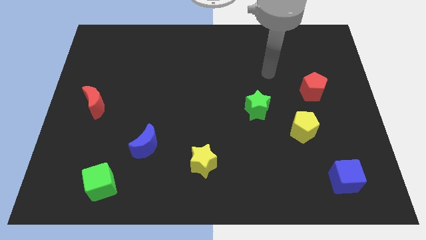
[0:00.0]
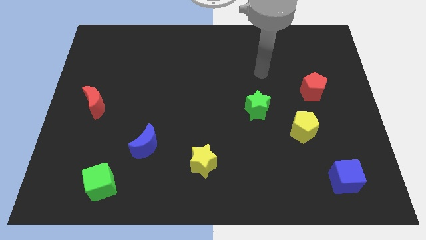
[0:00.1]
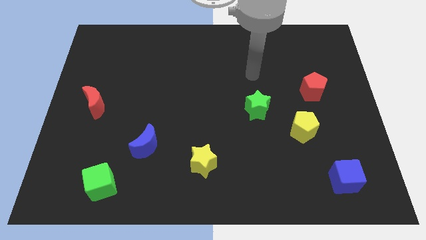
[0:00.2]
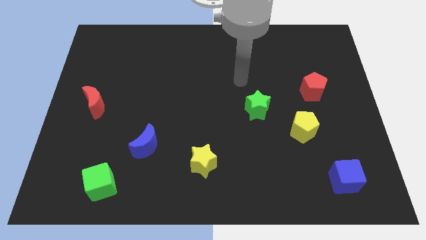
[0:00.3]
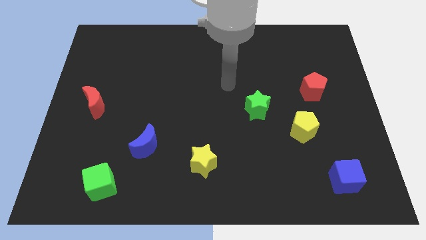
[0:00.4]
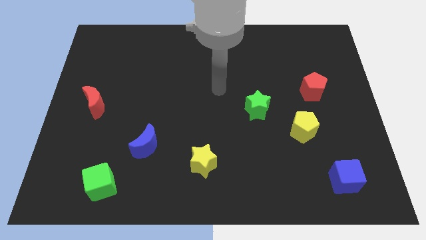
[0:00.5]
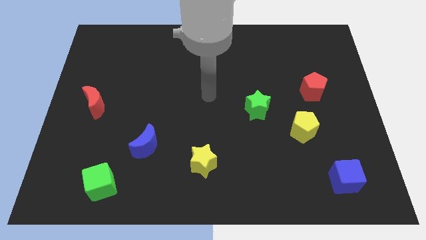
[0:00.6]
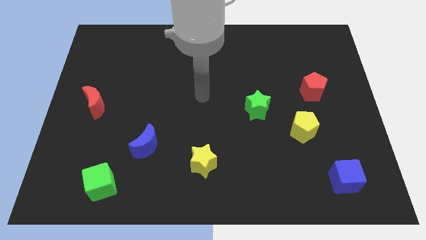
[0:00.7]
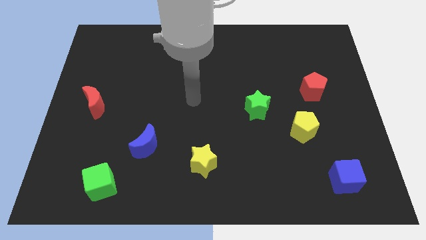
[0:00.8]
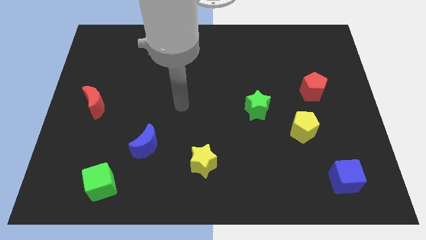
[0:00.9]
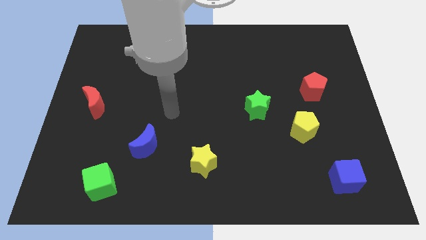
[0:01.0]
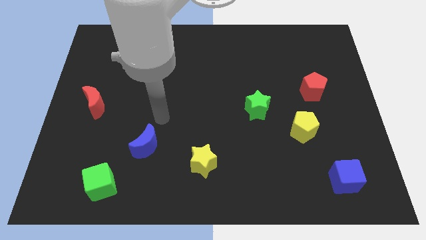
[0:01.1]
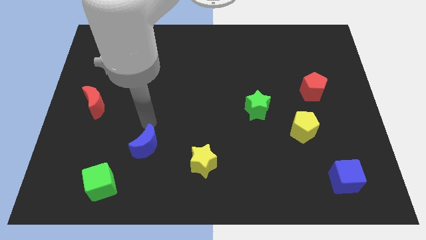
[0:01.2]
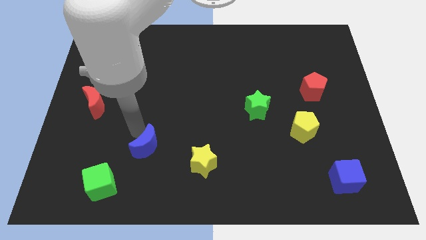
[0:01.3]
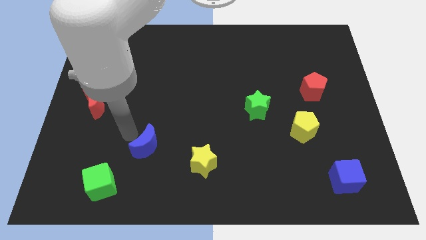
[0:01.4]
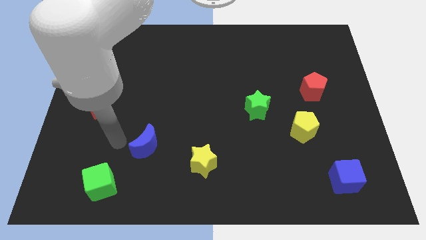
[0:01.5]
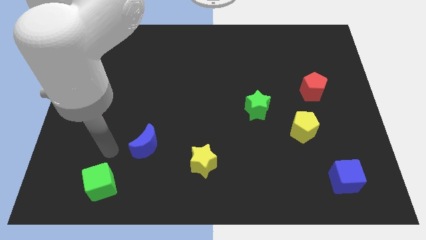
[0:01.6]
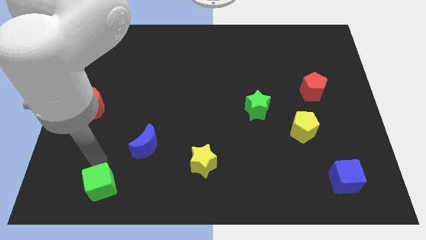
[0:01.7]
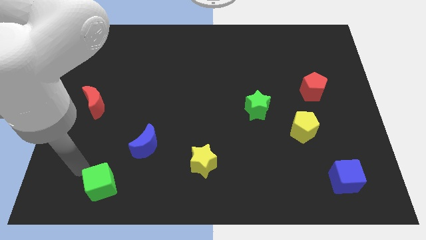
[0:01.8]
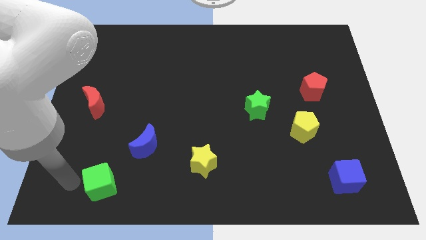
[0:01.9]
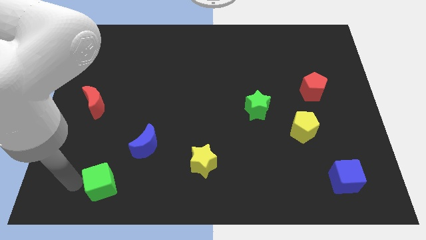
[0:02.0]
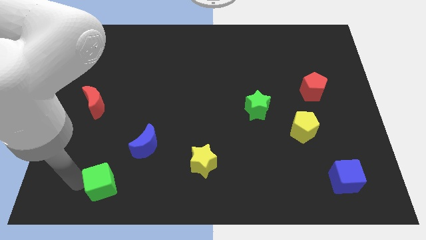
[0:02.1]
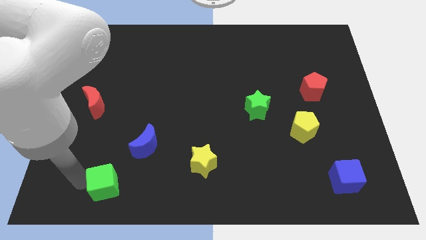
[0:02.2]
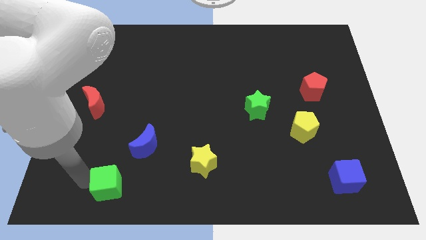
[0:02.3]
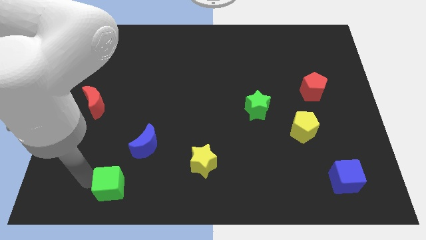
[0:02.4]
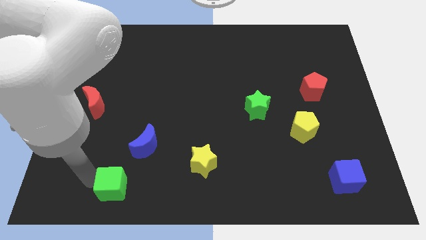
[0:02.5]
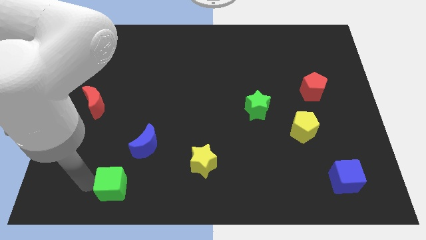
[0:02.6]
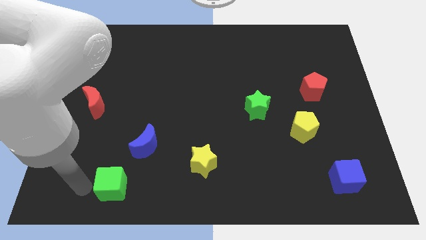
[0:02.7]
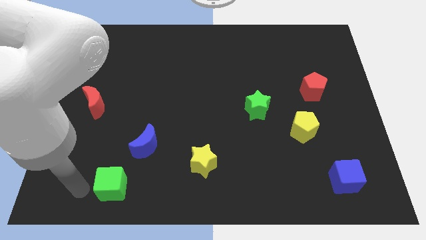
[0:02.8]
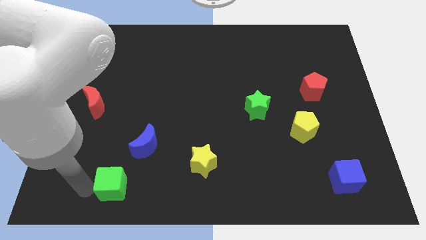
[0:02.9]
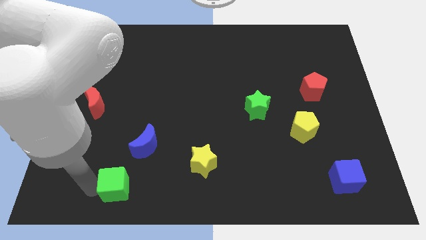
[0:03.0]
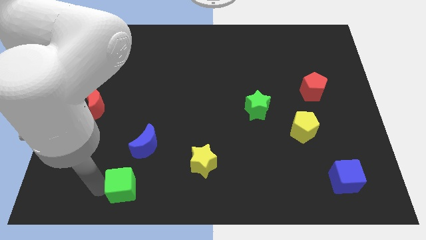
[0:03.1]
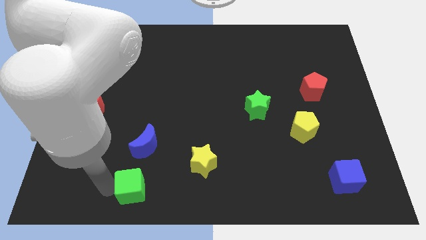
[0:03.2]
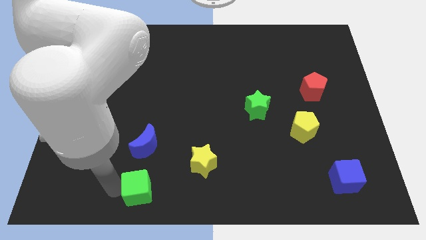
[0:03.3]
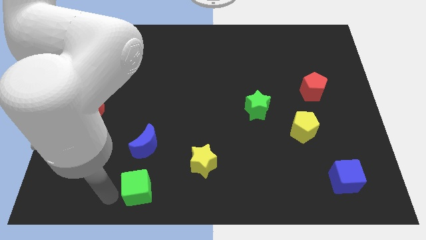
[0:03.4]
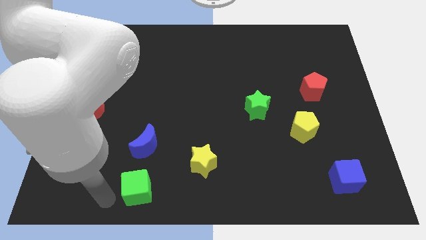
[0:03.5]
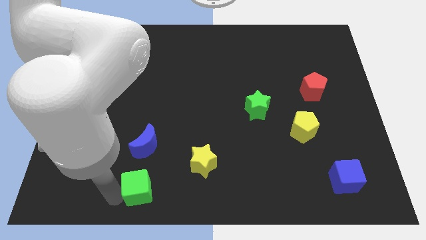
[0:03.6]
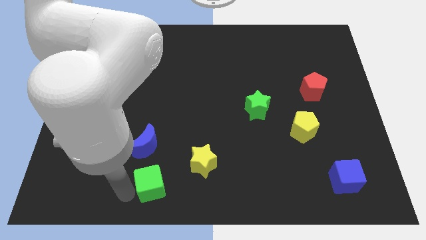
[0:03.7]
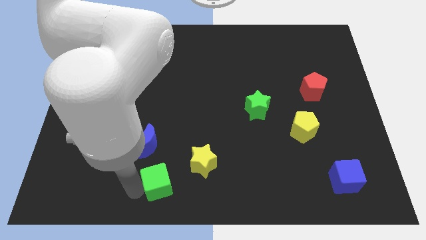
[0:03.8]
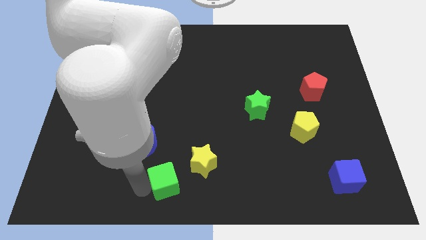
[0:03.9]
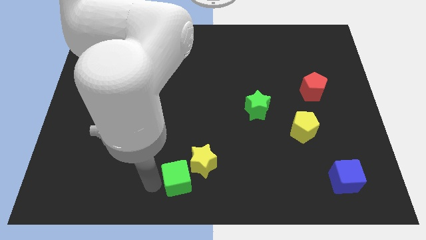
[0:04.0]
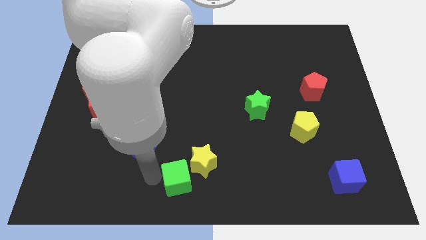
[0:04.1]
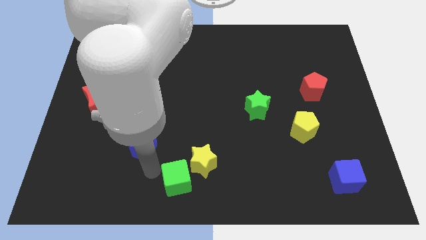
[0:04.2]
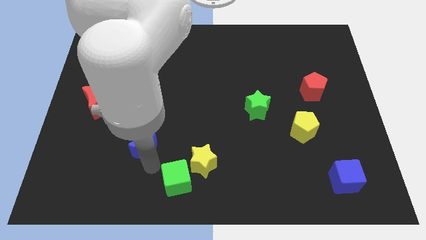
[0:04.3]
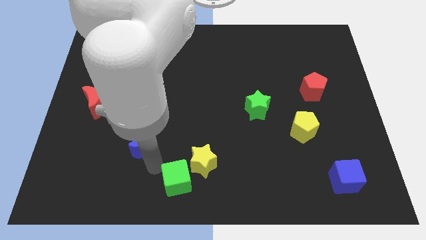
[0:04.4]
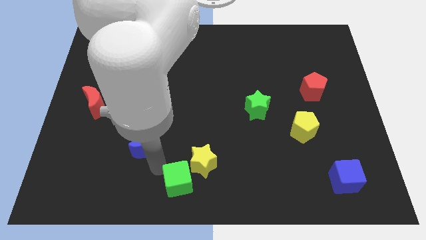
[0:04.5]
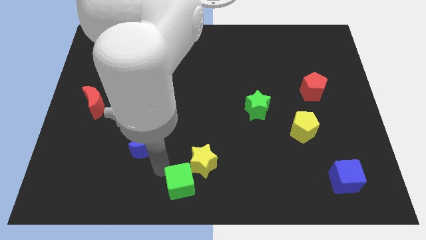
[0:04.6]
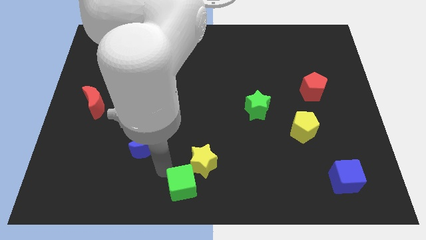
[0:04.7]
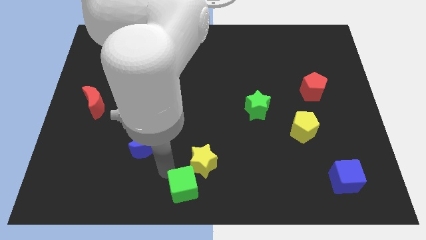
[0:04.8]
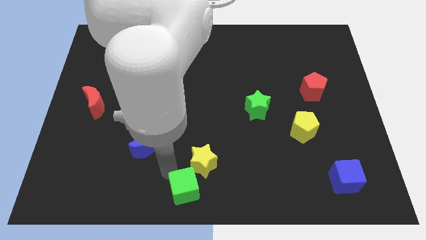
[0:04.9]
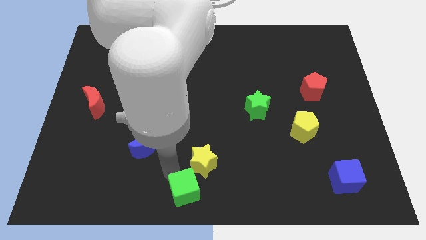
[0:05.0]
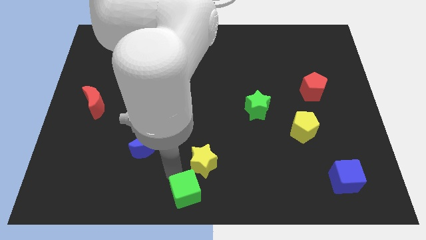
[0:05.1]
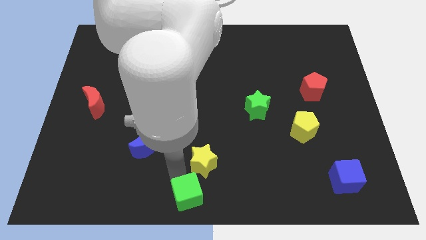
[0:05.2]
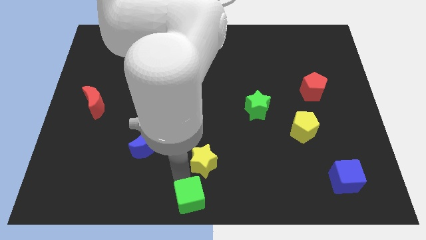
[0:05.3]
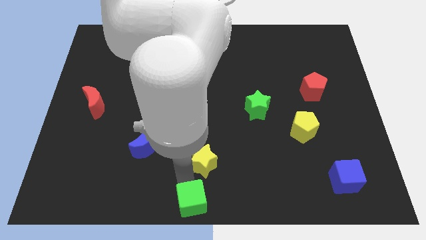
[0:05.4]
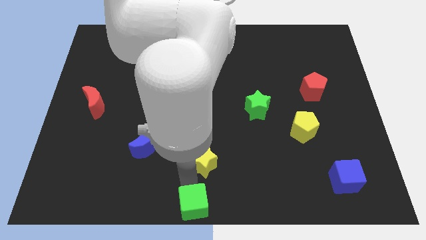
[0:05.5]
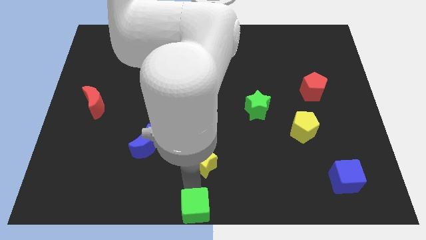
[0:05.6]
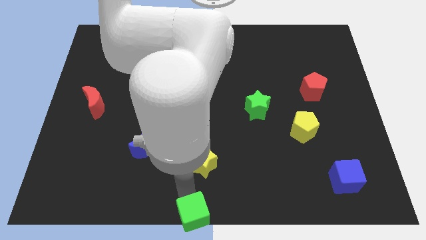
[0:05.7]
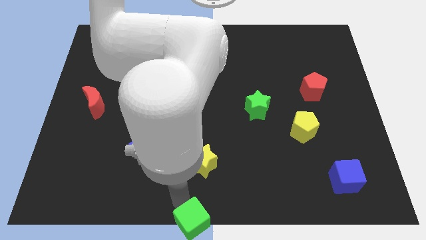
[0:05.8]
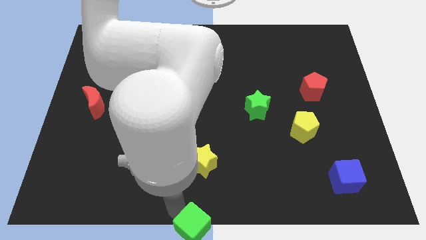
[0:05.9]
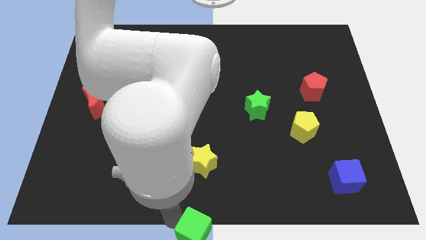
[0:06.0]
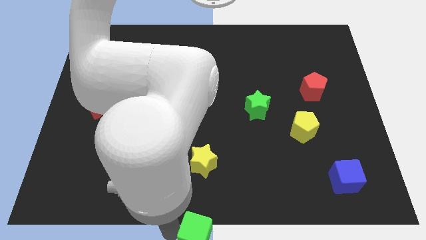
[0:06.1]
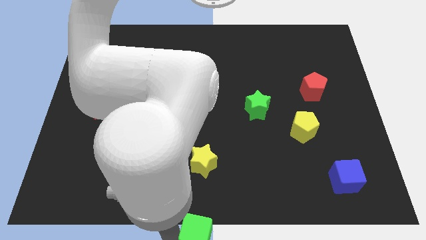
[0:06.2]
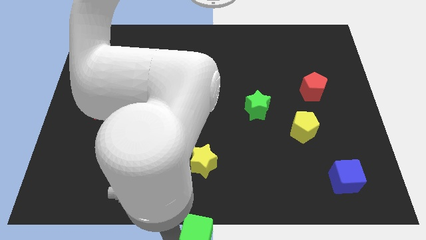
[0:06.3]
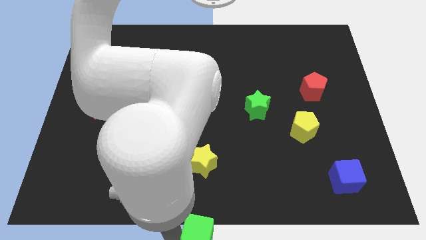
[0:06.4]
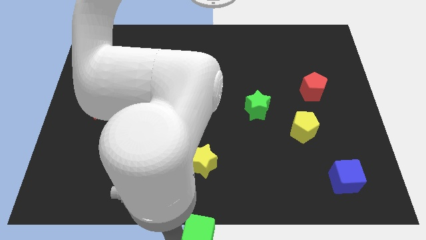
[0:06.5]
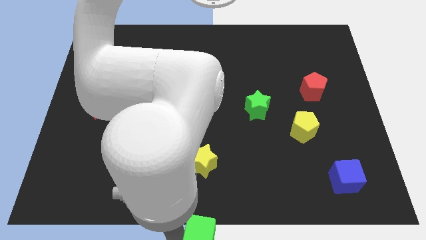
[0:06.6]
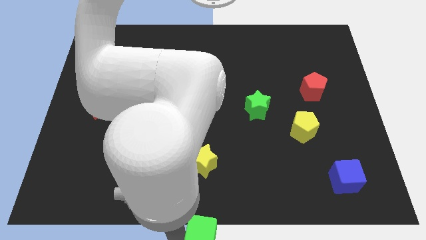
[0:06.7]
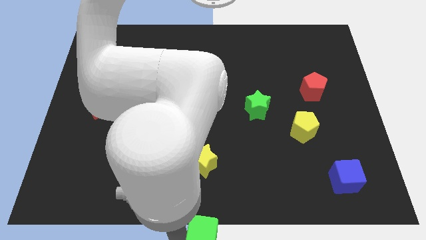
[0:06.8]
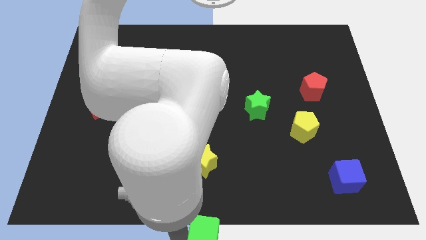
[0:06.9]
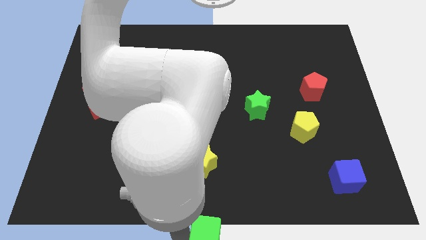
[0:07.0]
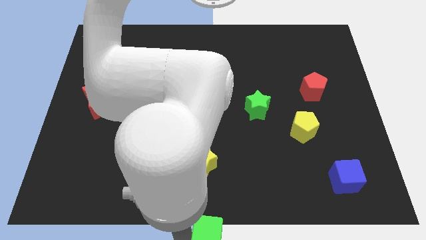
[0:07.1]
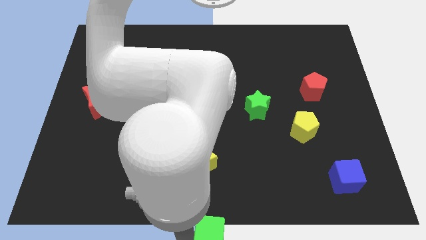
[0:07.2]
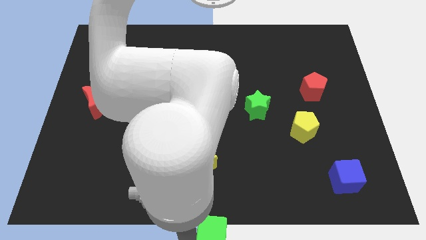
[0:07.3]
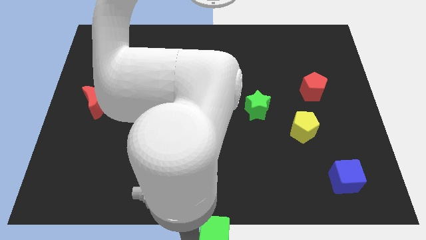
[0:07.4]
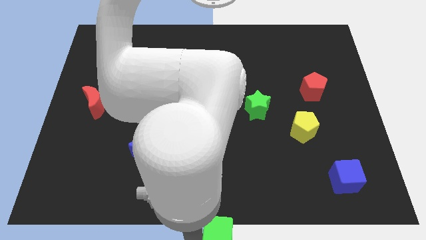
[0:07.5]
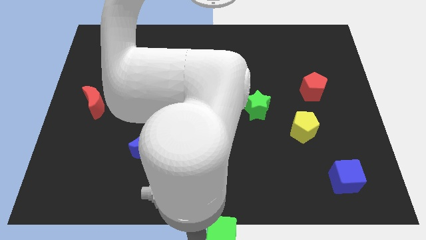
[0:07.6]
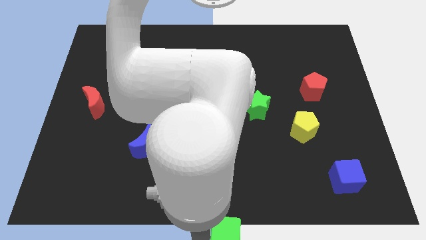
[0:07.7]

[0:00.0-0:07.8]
slide the green cube right

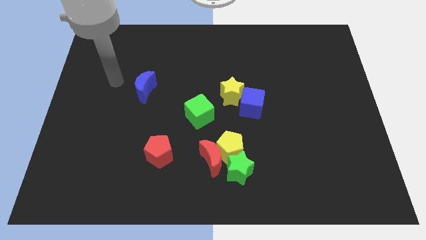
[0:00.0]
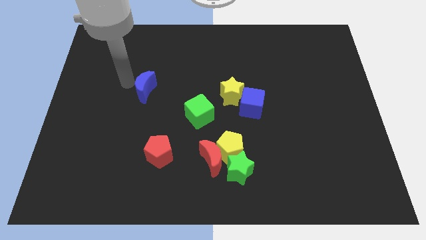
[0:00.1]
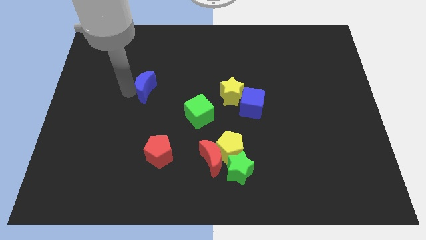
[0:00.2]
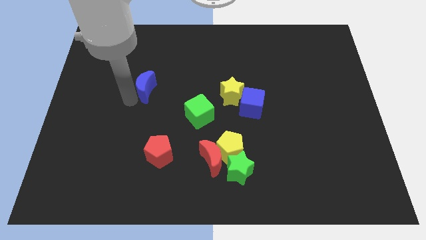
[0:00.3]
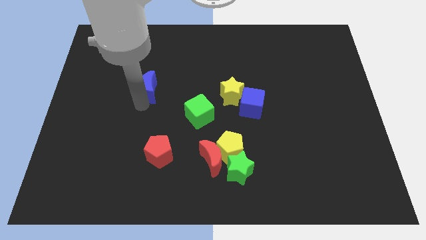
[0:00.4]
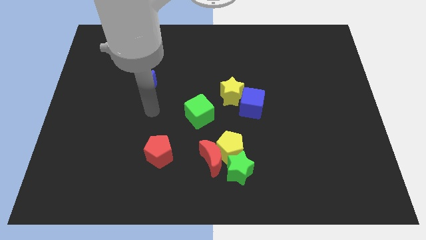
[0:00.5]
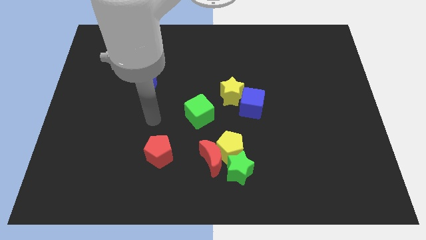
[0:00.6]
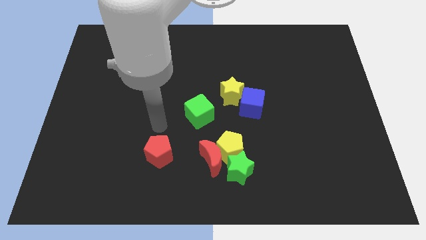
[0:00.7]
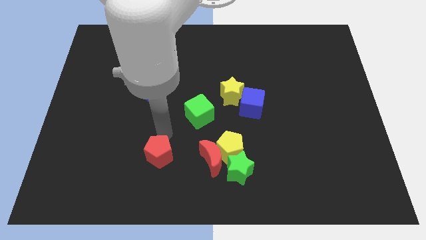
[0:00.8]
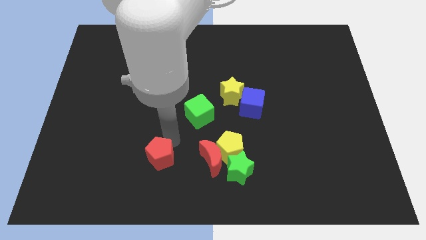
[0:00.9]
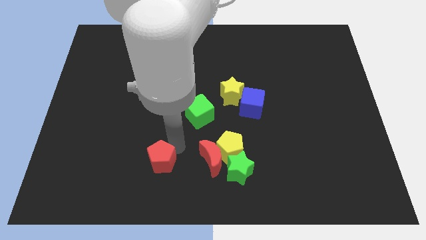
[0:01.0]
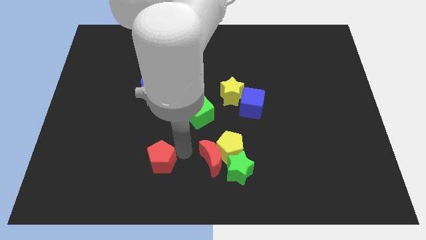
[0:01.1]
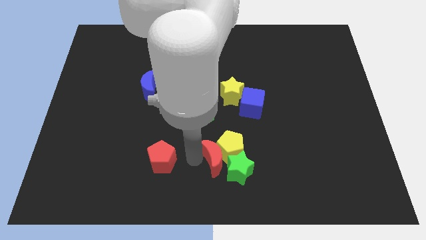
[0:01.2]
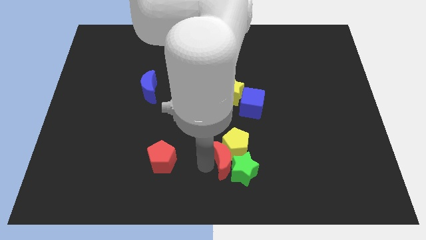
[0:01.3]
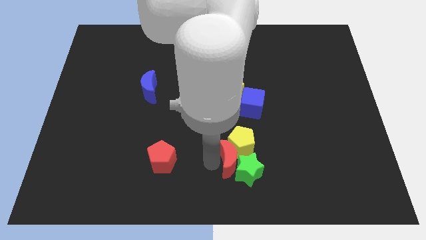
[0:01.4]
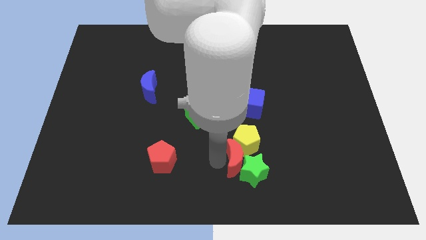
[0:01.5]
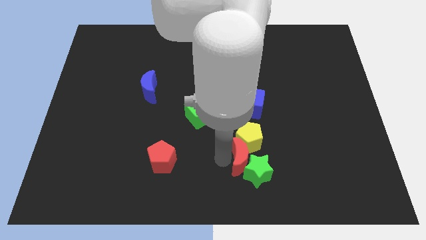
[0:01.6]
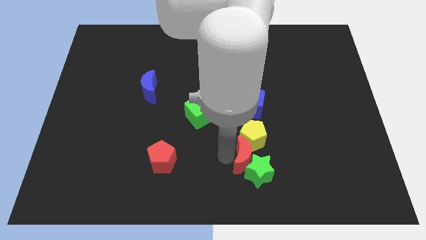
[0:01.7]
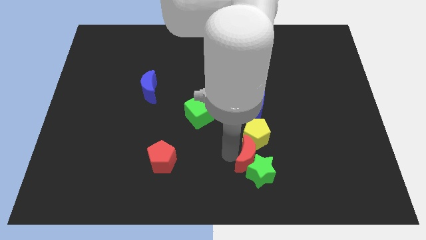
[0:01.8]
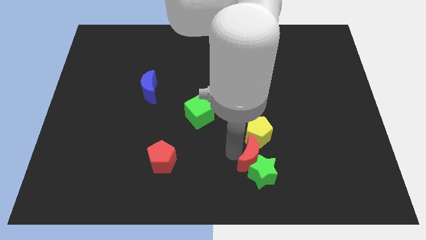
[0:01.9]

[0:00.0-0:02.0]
slide the yellow pentagon somewhat up and right
